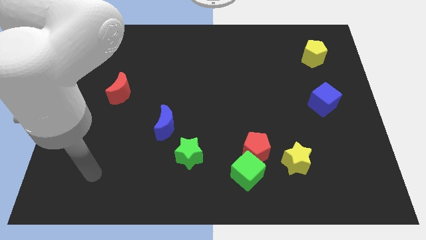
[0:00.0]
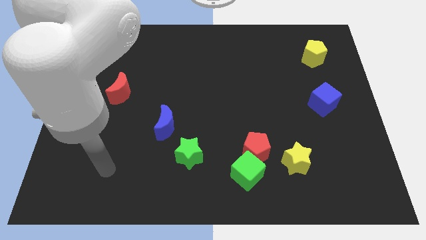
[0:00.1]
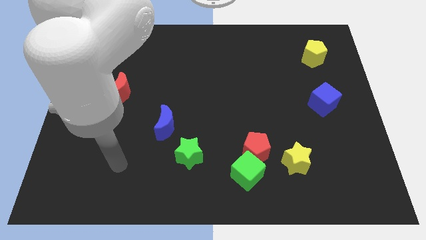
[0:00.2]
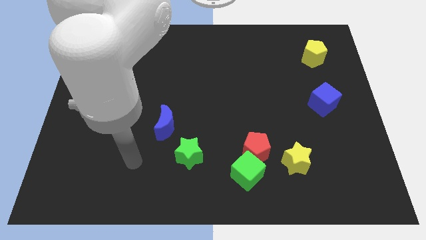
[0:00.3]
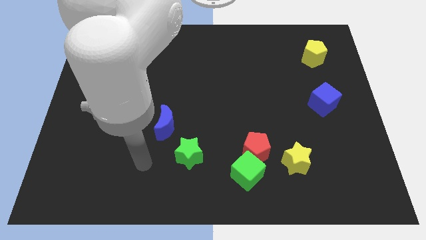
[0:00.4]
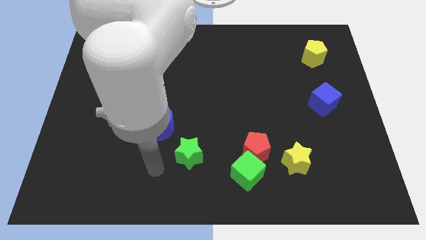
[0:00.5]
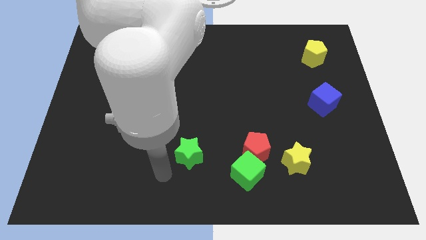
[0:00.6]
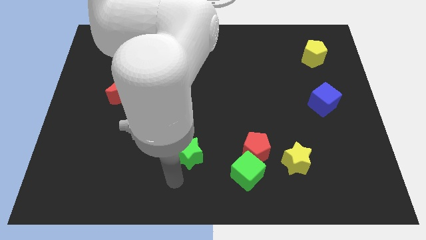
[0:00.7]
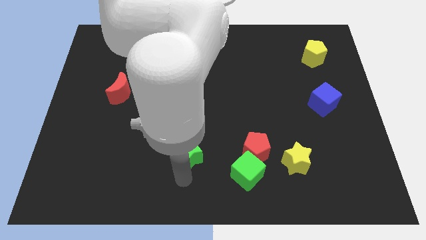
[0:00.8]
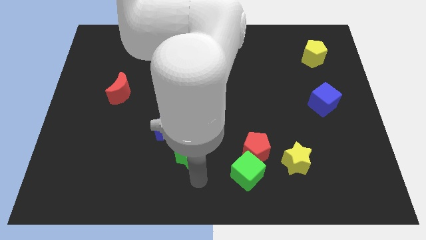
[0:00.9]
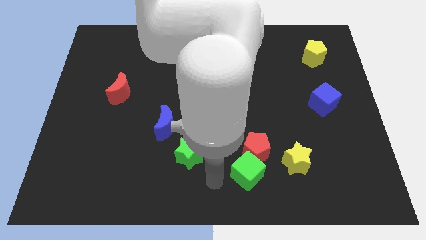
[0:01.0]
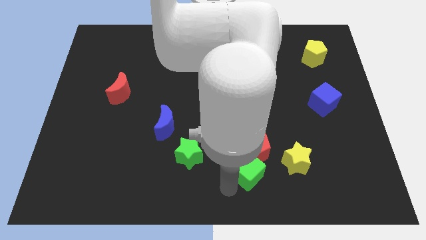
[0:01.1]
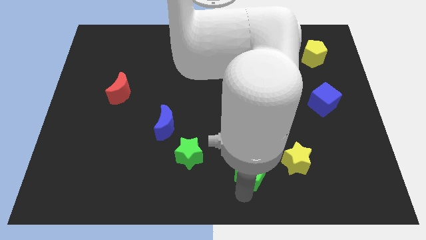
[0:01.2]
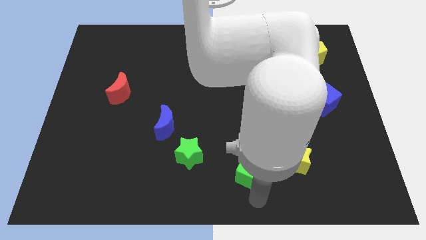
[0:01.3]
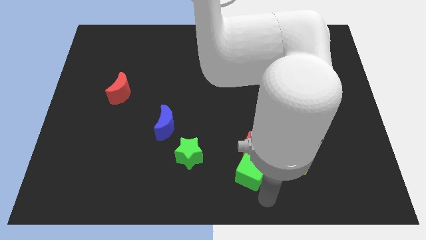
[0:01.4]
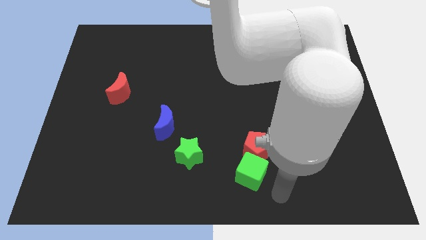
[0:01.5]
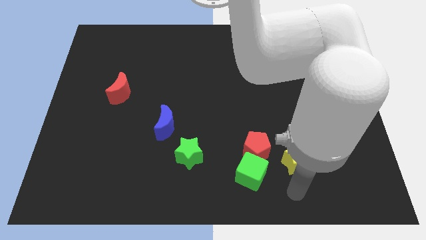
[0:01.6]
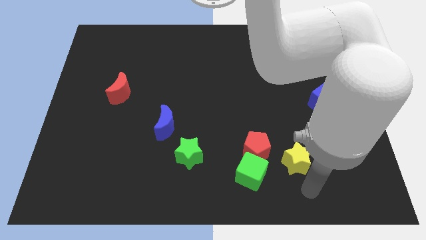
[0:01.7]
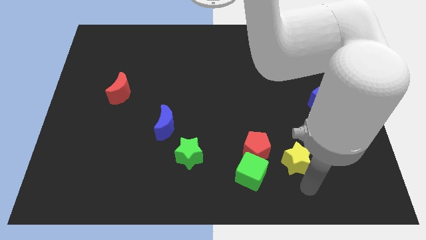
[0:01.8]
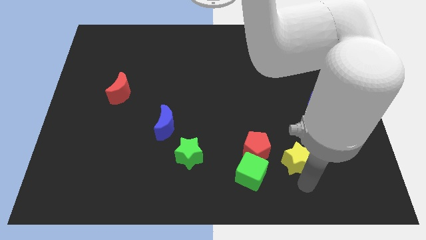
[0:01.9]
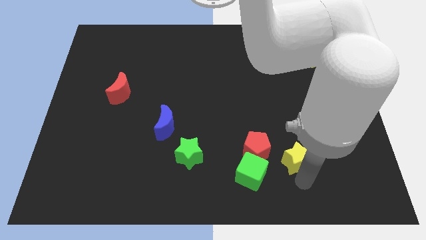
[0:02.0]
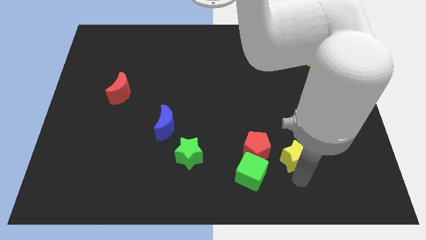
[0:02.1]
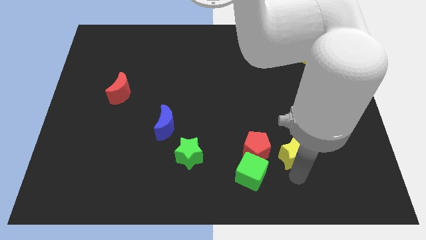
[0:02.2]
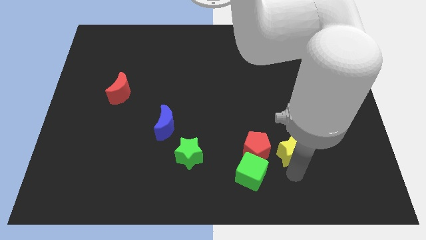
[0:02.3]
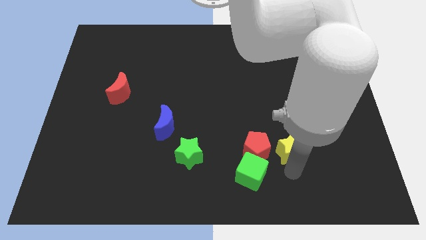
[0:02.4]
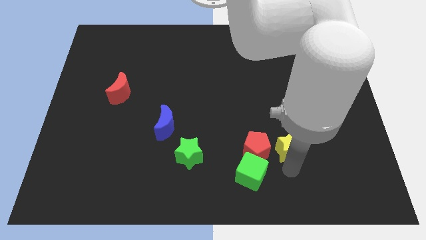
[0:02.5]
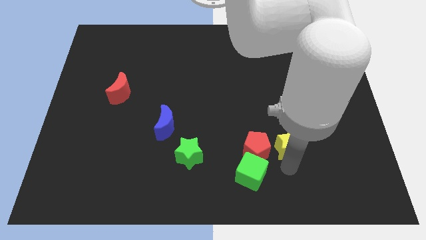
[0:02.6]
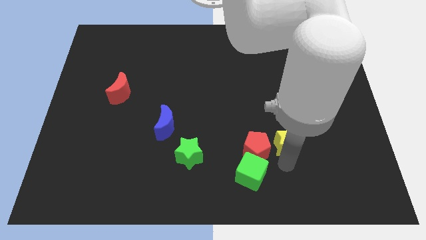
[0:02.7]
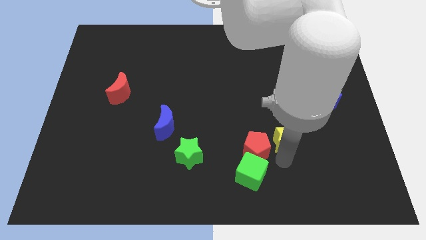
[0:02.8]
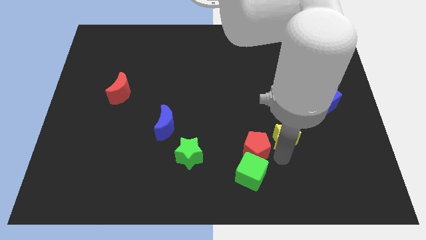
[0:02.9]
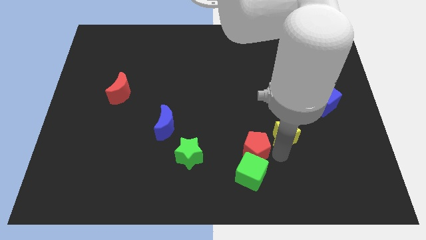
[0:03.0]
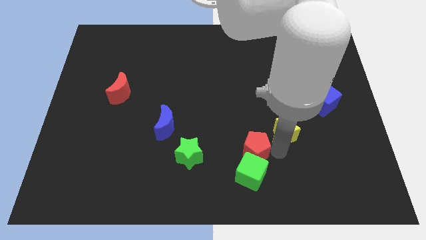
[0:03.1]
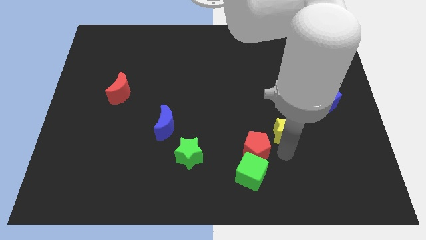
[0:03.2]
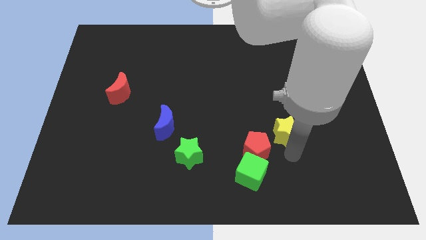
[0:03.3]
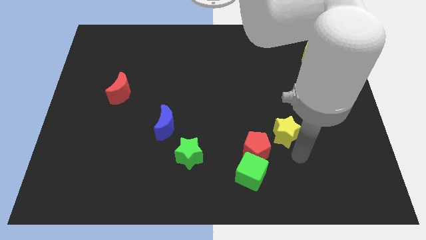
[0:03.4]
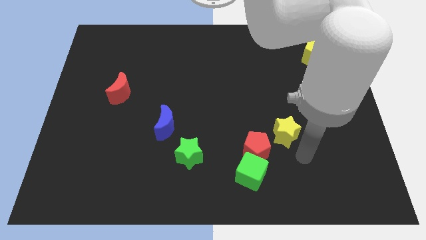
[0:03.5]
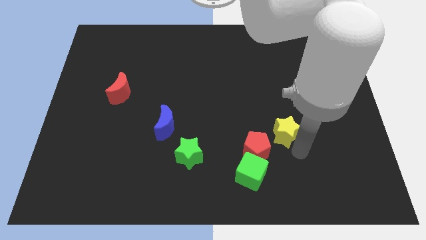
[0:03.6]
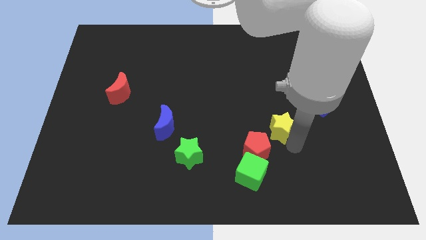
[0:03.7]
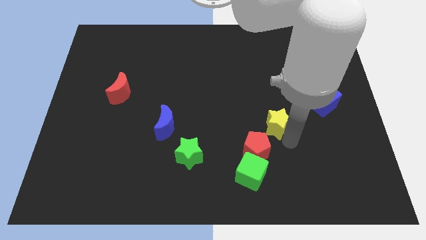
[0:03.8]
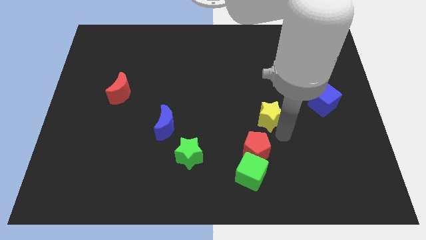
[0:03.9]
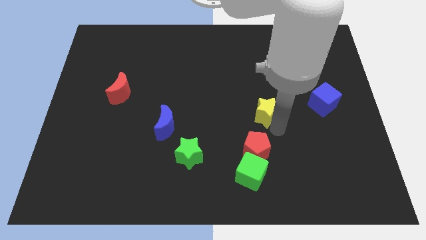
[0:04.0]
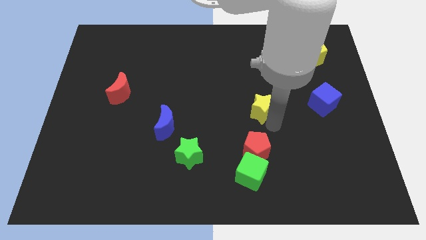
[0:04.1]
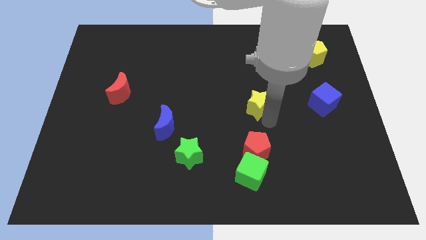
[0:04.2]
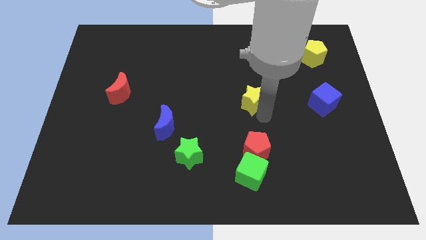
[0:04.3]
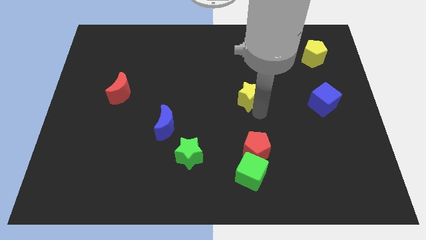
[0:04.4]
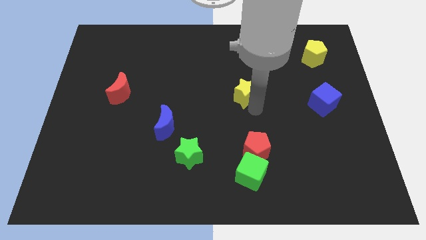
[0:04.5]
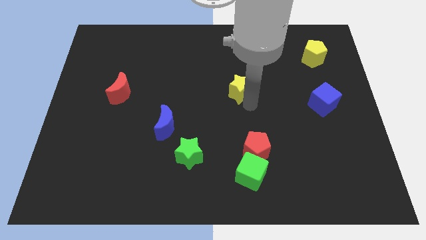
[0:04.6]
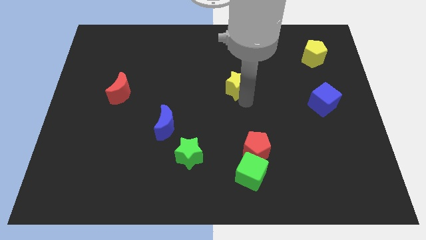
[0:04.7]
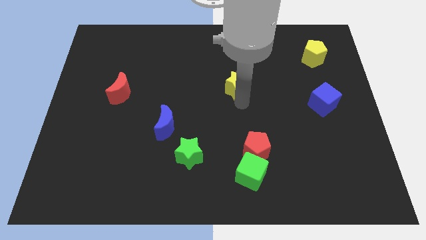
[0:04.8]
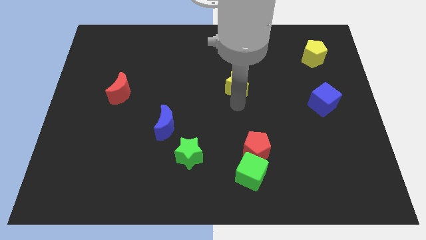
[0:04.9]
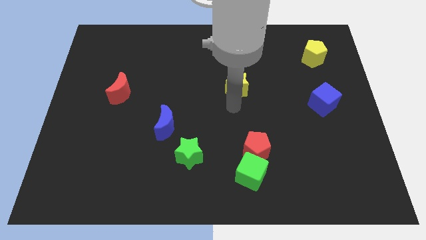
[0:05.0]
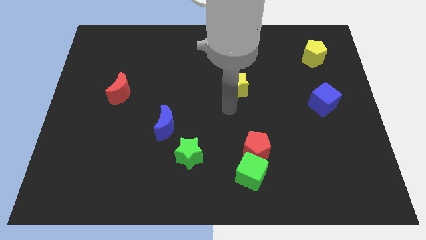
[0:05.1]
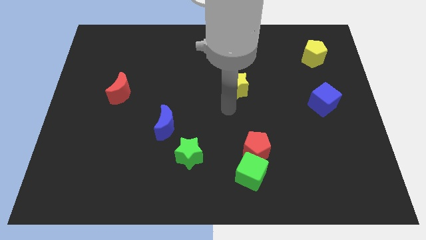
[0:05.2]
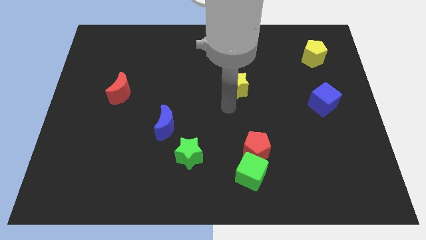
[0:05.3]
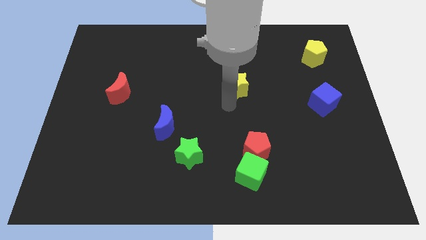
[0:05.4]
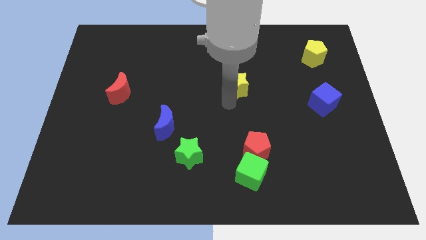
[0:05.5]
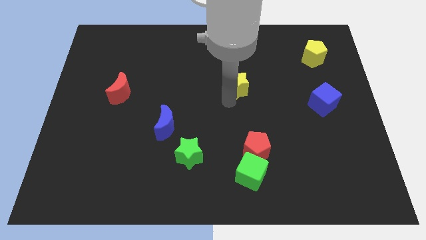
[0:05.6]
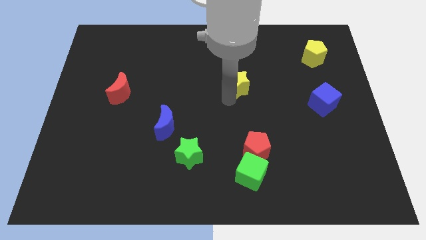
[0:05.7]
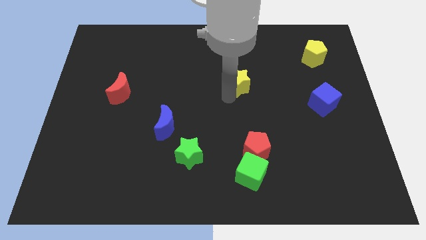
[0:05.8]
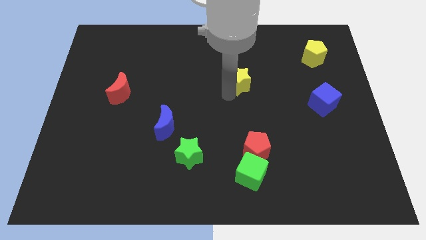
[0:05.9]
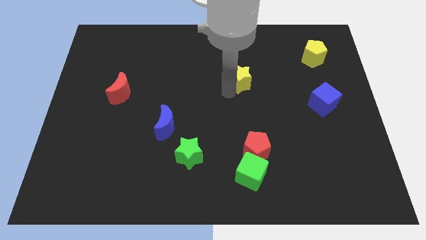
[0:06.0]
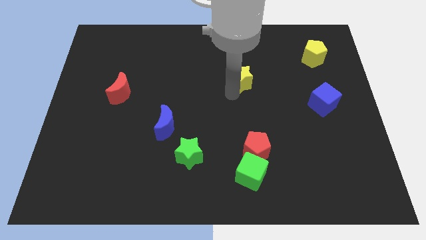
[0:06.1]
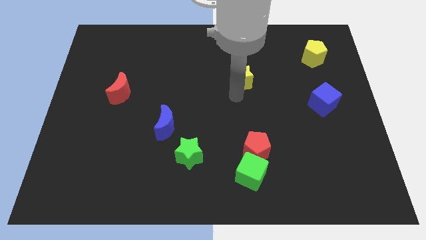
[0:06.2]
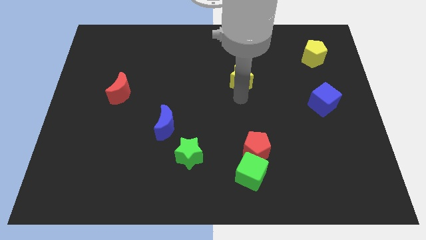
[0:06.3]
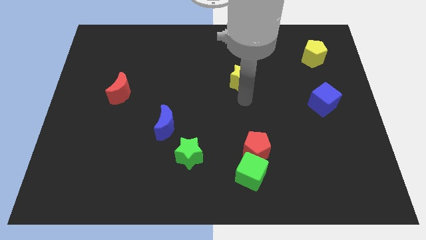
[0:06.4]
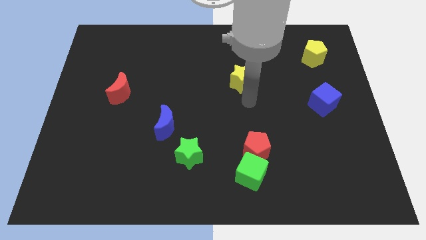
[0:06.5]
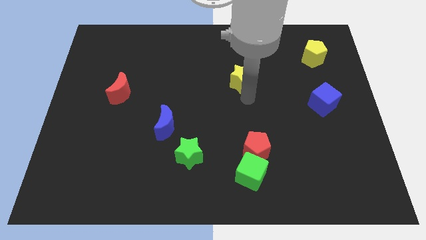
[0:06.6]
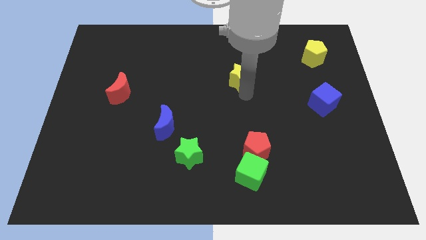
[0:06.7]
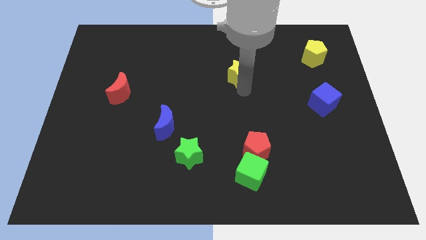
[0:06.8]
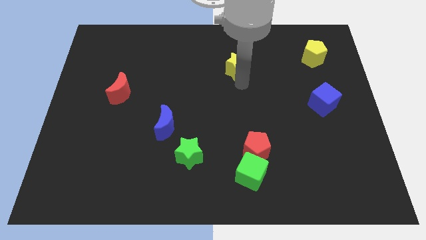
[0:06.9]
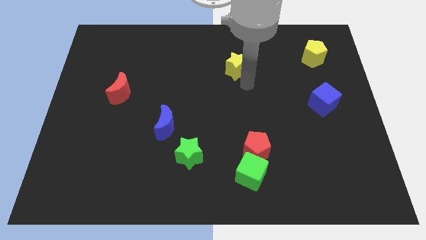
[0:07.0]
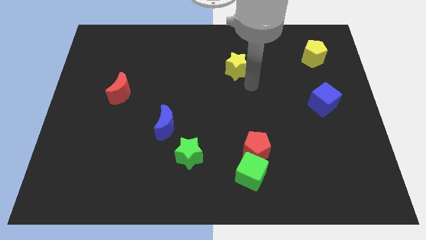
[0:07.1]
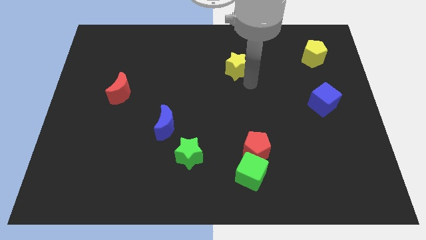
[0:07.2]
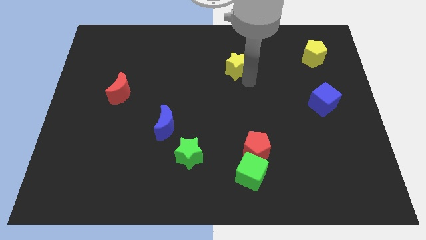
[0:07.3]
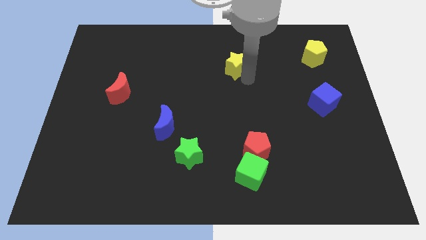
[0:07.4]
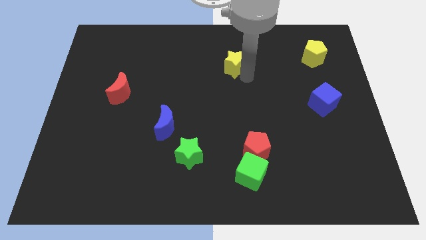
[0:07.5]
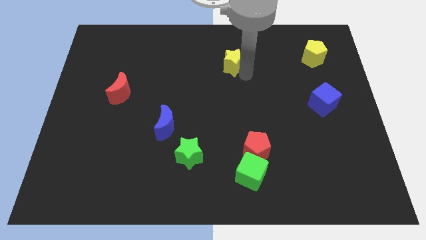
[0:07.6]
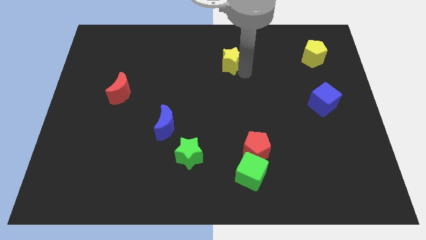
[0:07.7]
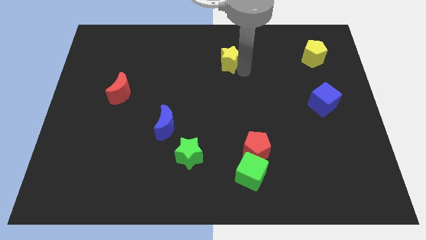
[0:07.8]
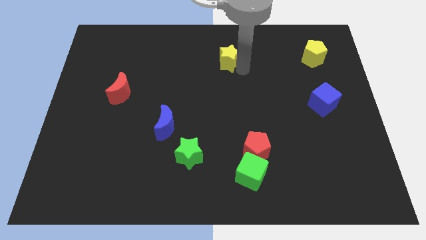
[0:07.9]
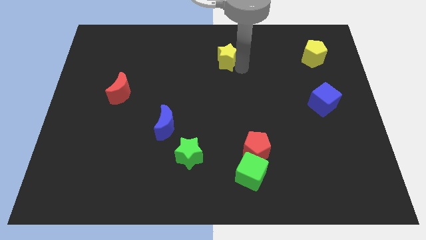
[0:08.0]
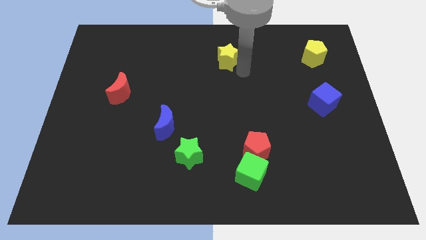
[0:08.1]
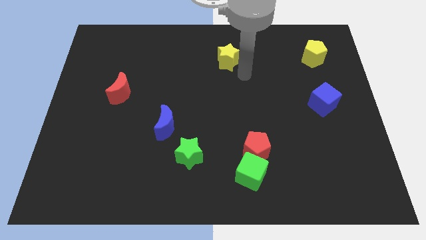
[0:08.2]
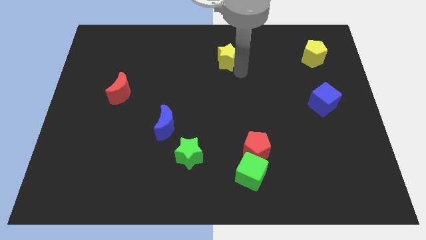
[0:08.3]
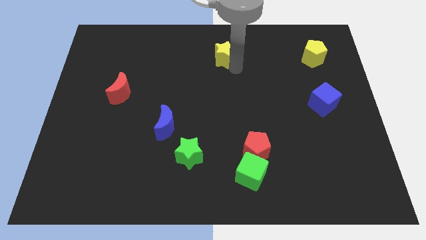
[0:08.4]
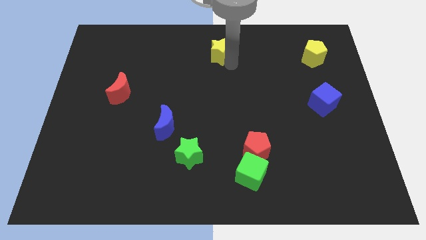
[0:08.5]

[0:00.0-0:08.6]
push the yellow star to the top
